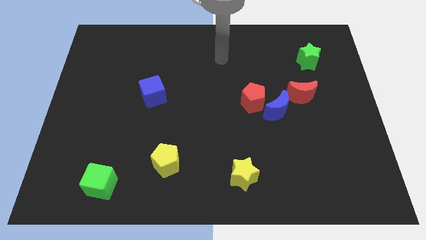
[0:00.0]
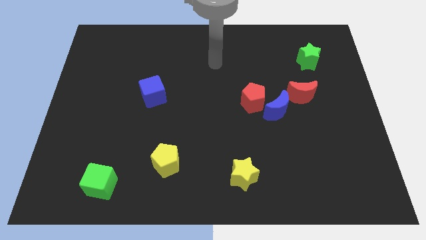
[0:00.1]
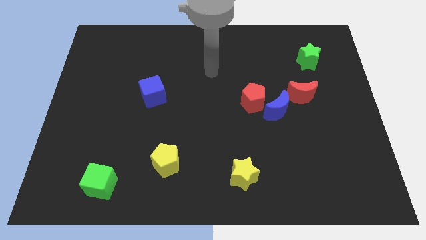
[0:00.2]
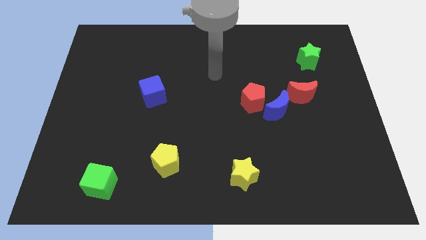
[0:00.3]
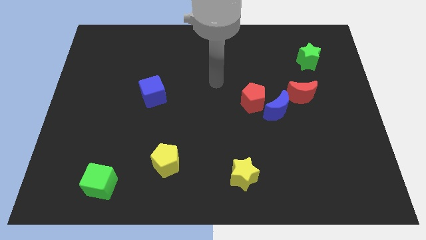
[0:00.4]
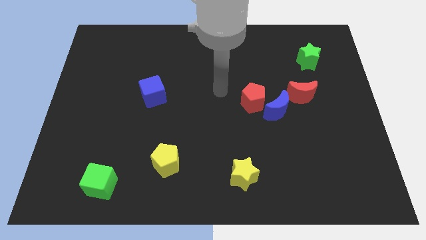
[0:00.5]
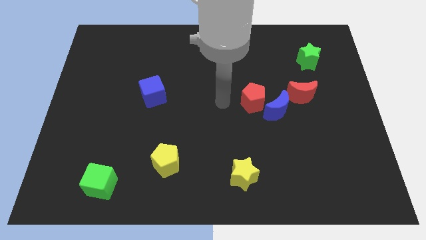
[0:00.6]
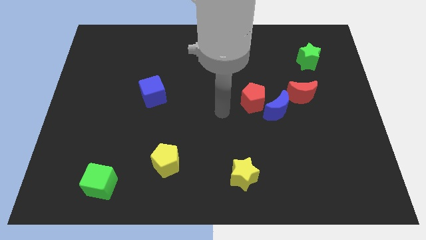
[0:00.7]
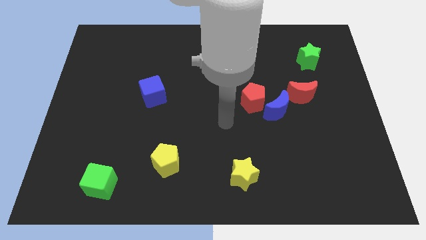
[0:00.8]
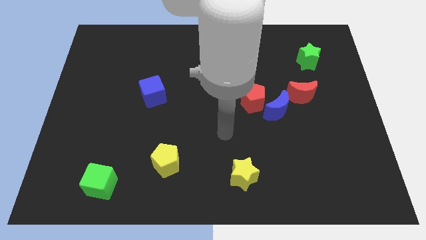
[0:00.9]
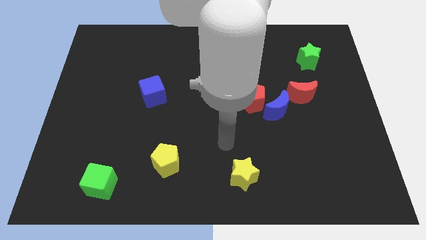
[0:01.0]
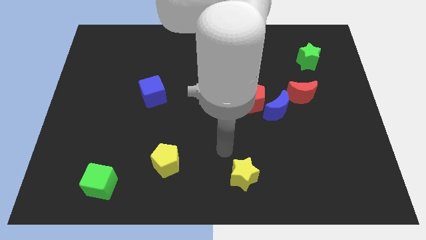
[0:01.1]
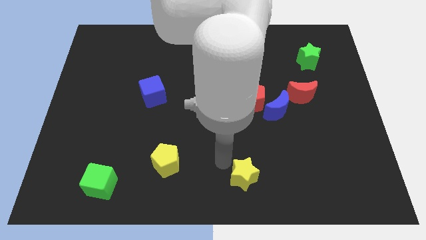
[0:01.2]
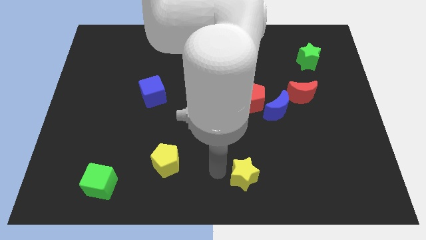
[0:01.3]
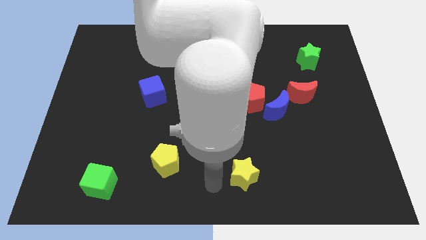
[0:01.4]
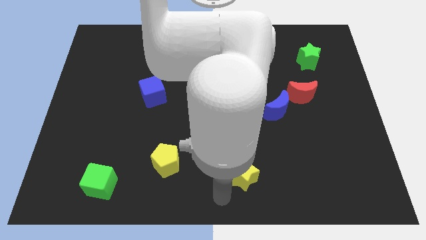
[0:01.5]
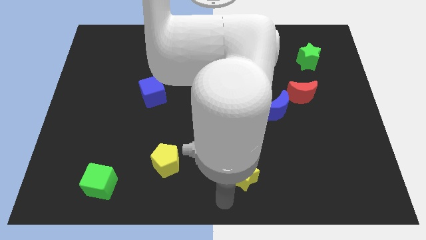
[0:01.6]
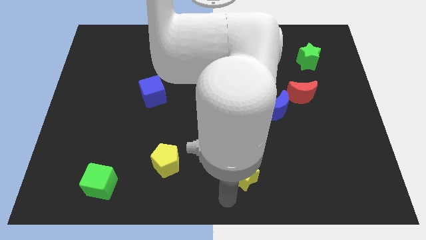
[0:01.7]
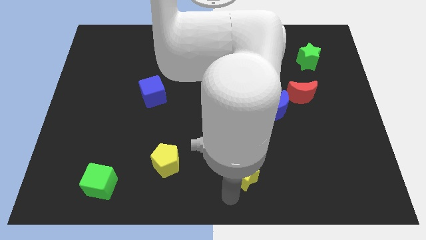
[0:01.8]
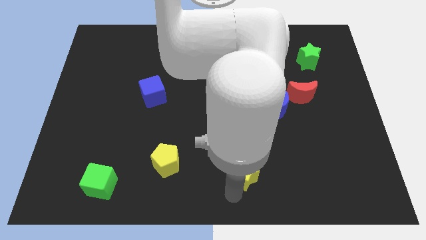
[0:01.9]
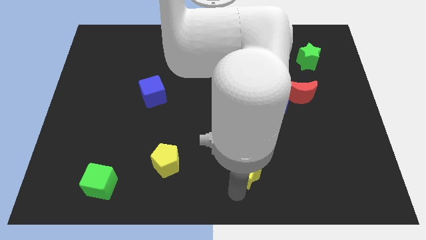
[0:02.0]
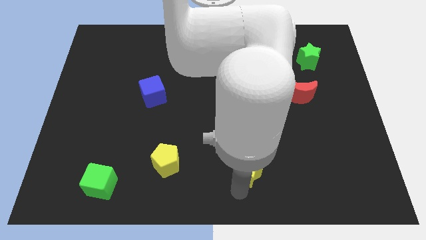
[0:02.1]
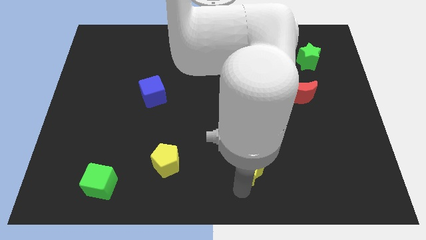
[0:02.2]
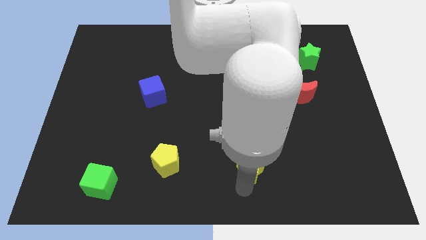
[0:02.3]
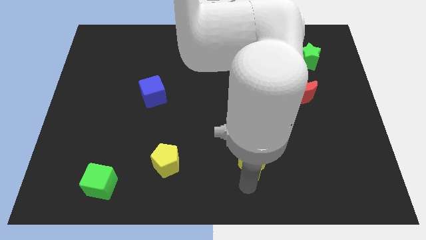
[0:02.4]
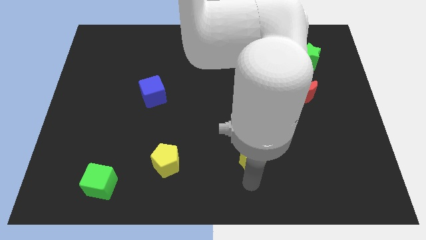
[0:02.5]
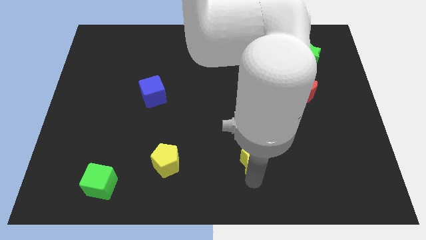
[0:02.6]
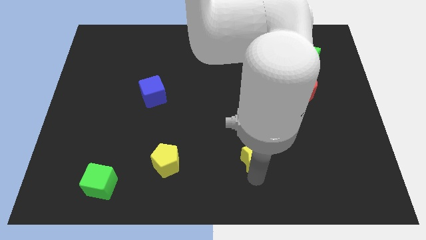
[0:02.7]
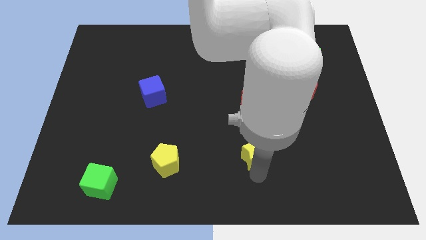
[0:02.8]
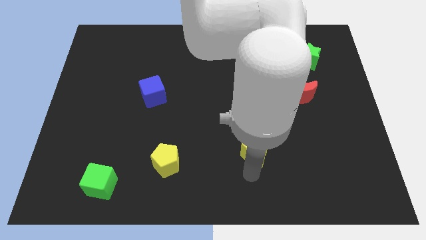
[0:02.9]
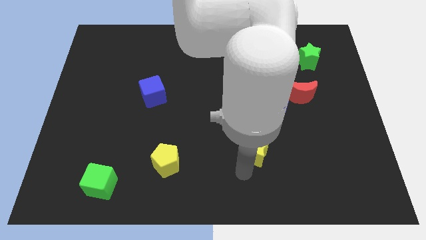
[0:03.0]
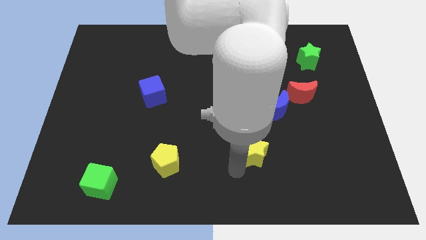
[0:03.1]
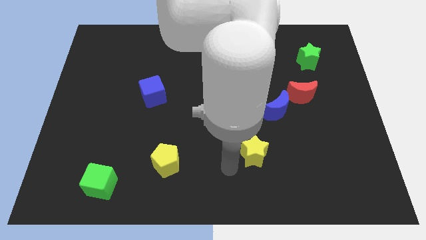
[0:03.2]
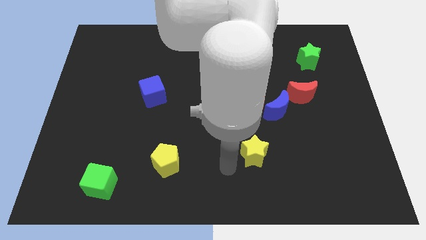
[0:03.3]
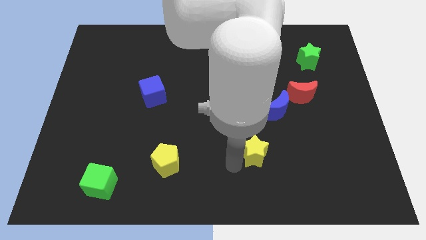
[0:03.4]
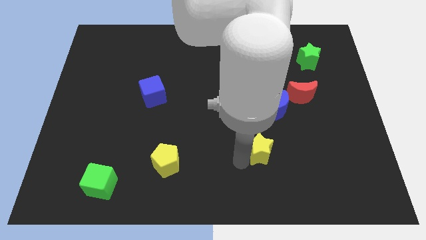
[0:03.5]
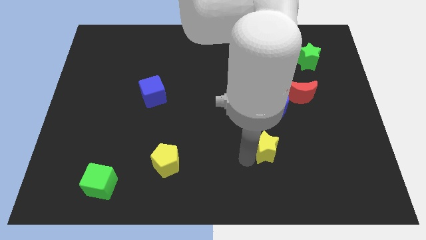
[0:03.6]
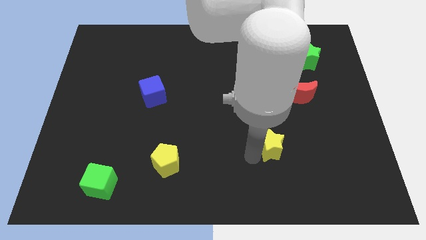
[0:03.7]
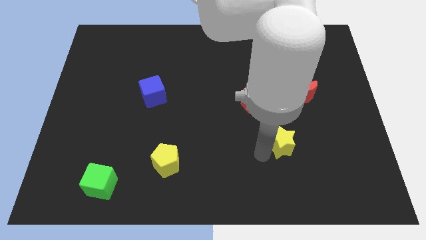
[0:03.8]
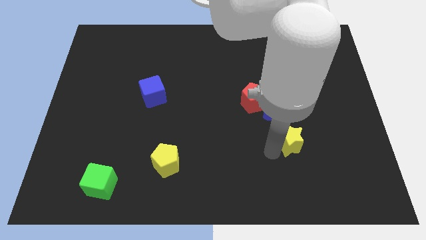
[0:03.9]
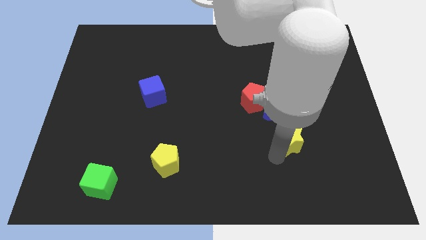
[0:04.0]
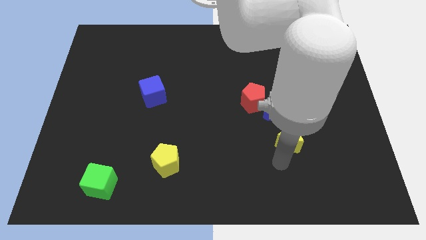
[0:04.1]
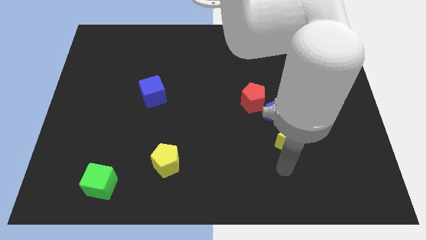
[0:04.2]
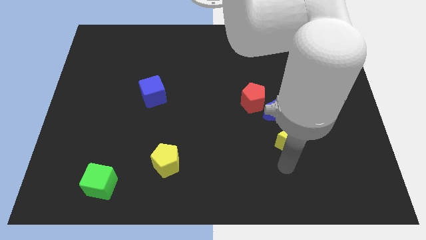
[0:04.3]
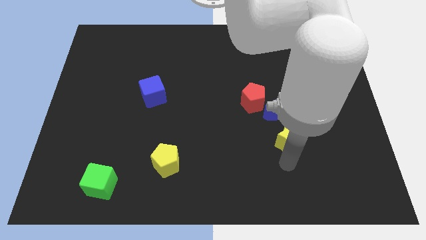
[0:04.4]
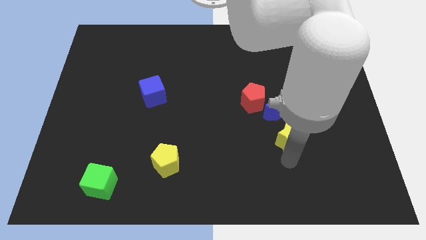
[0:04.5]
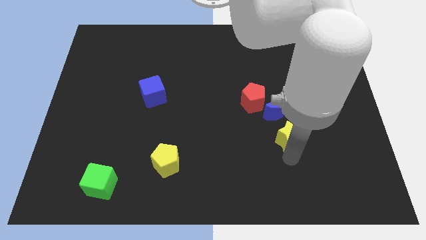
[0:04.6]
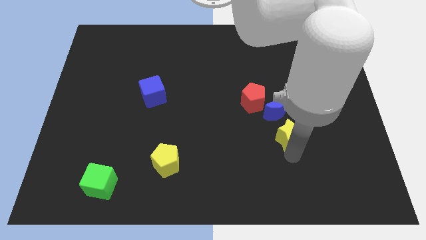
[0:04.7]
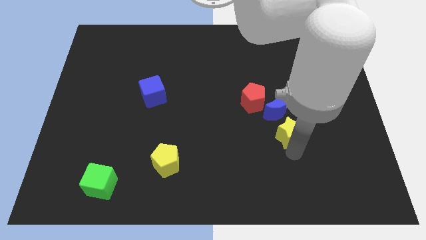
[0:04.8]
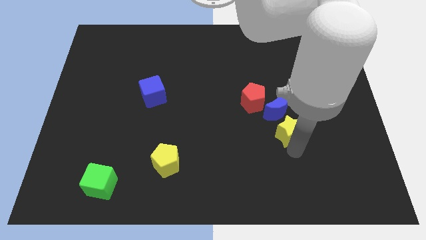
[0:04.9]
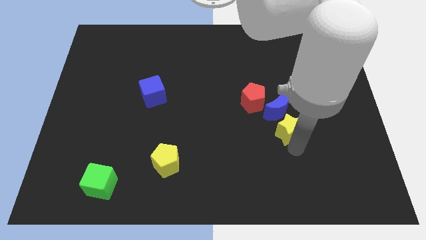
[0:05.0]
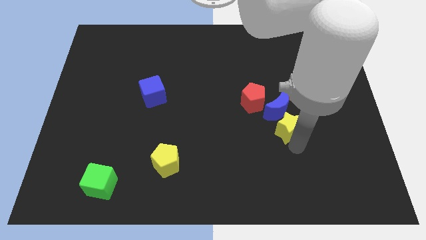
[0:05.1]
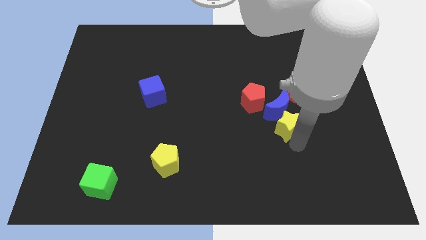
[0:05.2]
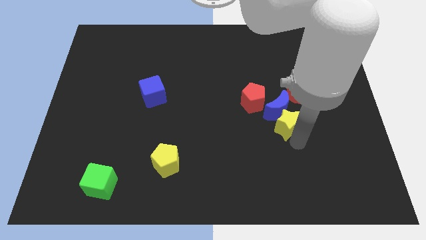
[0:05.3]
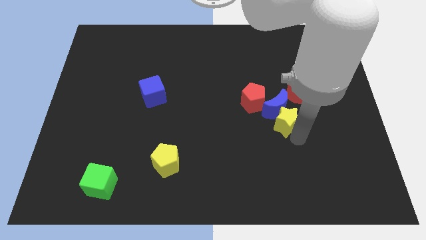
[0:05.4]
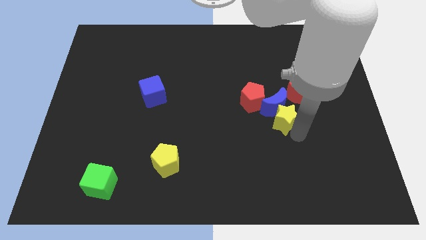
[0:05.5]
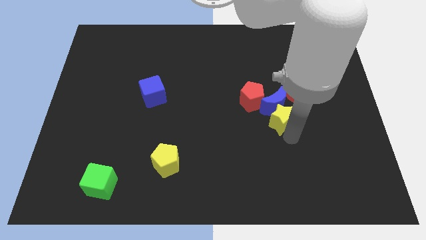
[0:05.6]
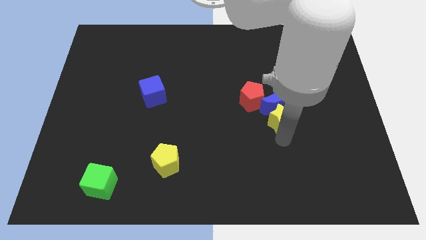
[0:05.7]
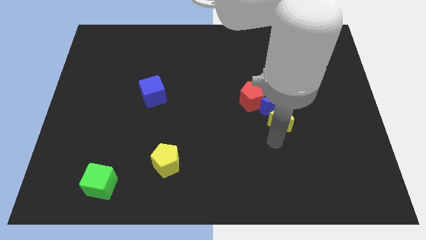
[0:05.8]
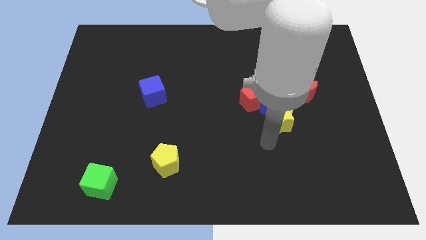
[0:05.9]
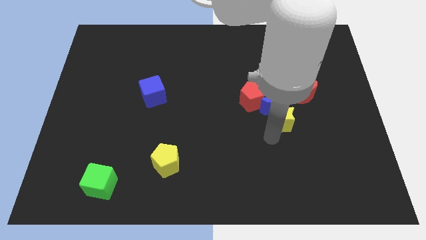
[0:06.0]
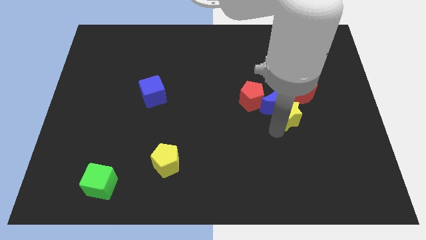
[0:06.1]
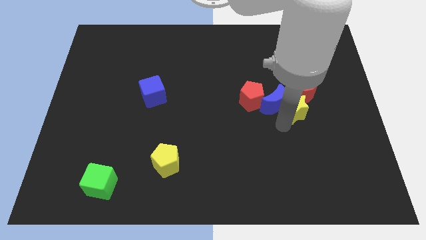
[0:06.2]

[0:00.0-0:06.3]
put the yellow star towards the red moon

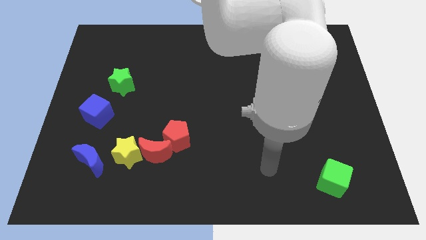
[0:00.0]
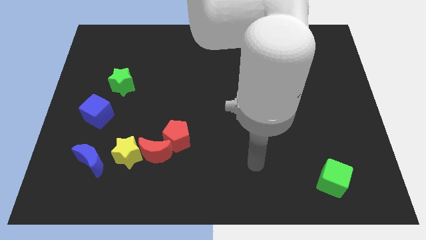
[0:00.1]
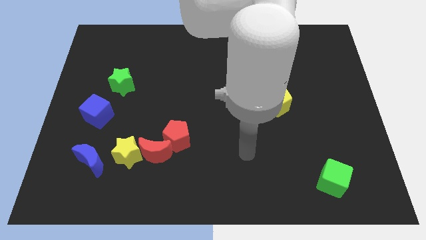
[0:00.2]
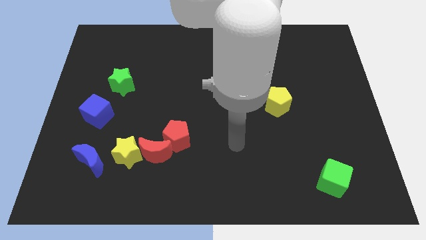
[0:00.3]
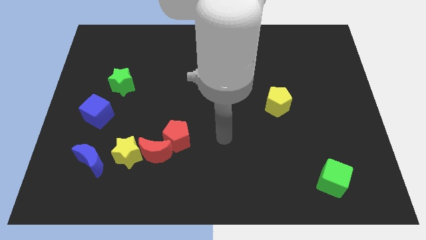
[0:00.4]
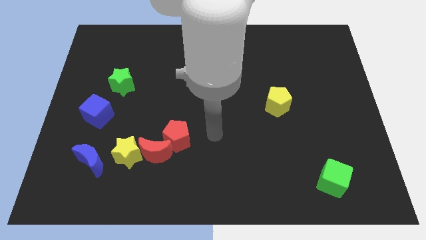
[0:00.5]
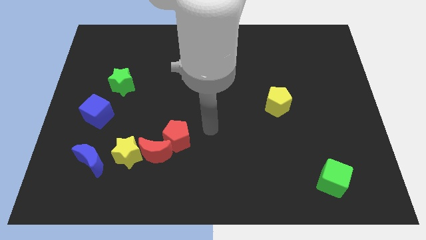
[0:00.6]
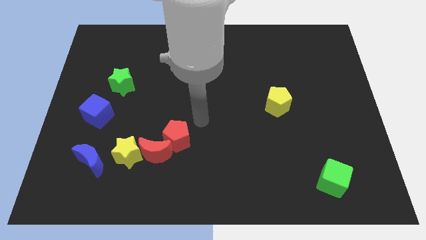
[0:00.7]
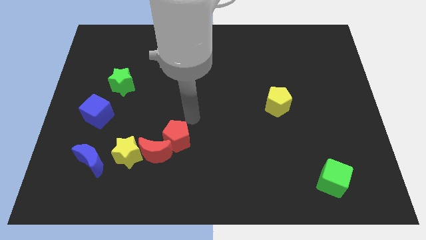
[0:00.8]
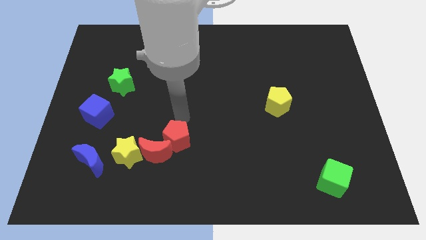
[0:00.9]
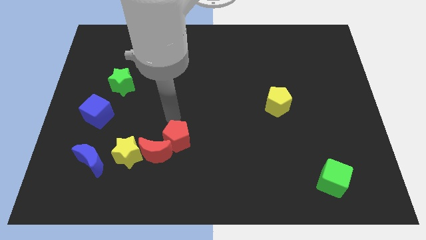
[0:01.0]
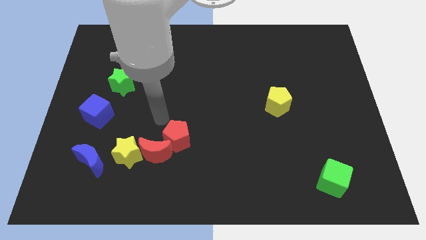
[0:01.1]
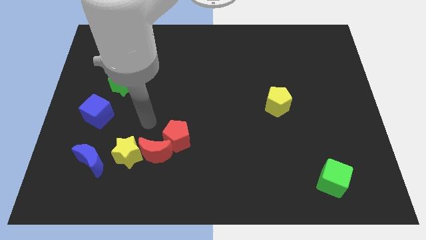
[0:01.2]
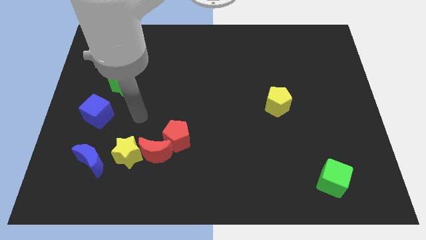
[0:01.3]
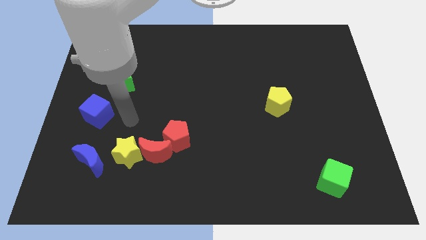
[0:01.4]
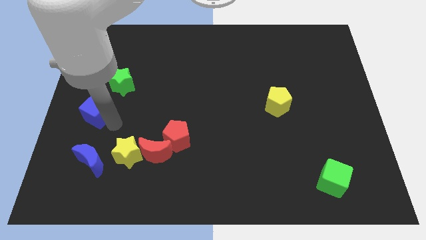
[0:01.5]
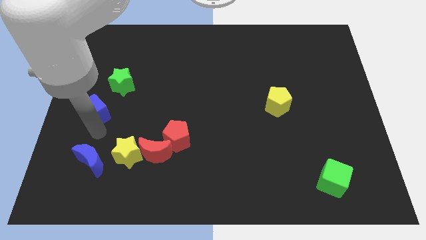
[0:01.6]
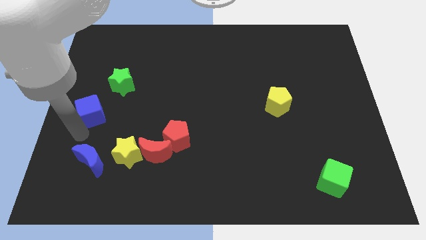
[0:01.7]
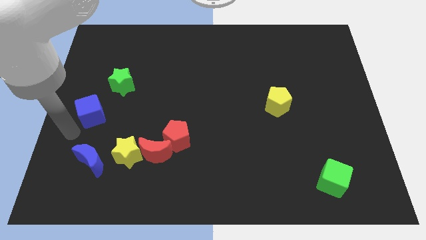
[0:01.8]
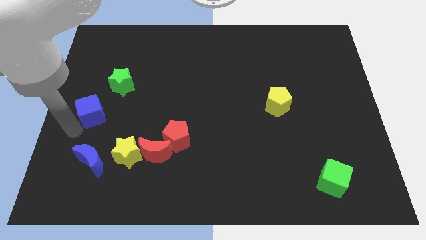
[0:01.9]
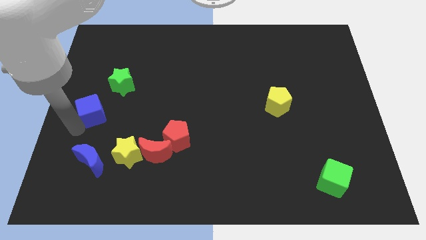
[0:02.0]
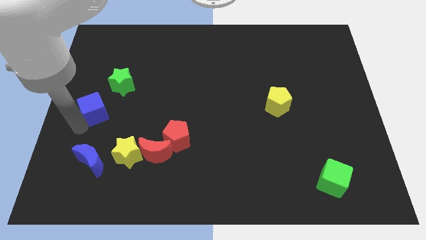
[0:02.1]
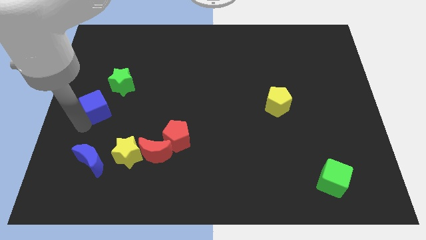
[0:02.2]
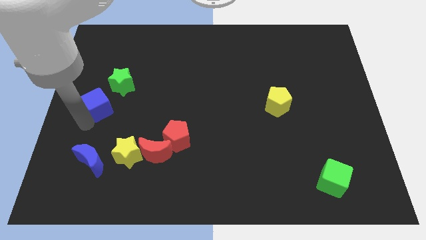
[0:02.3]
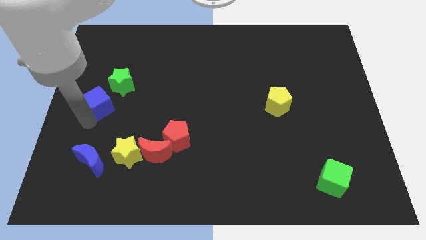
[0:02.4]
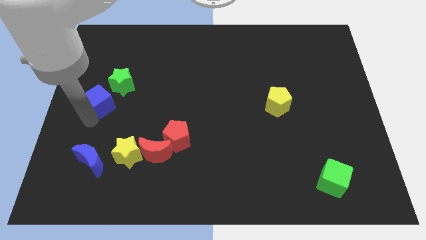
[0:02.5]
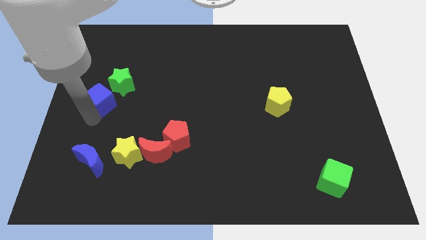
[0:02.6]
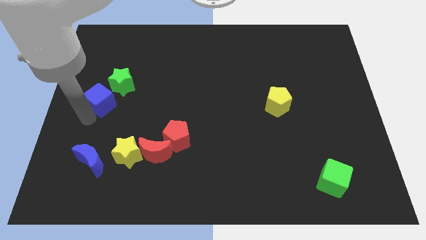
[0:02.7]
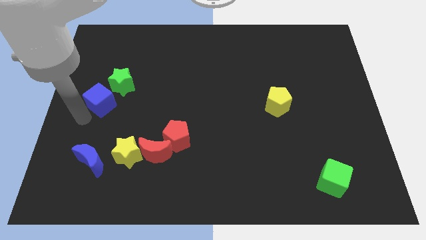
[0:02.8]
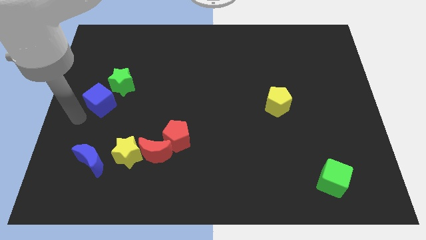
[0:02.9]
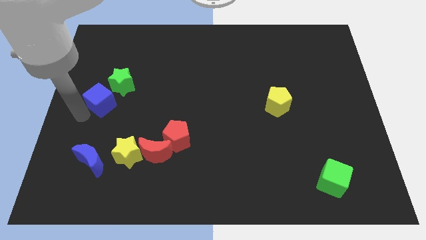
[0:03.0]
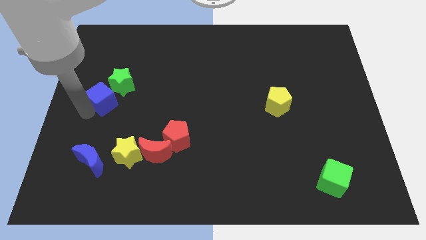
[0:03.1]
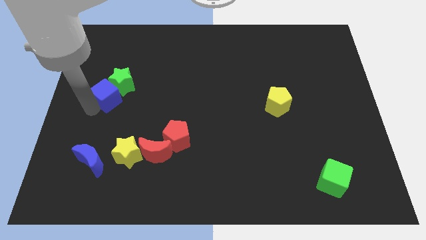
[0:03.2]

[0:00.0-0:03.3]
move the blue cube to the green star
